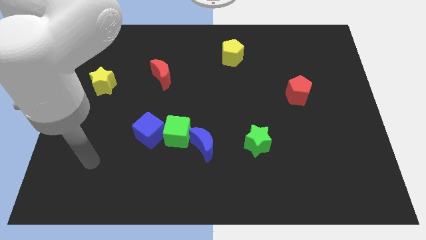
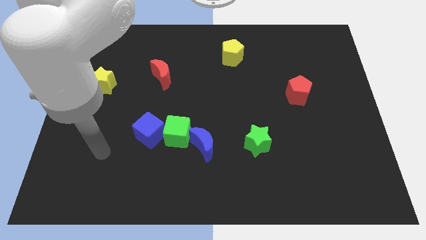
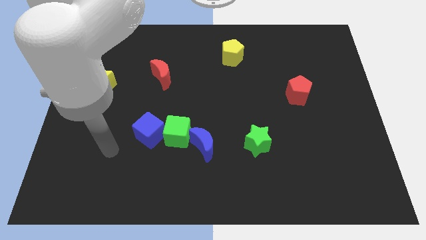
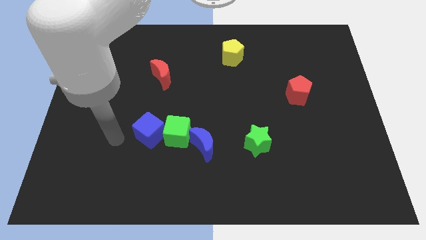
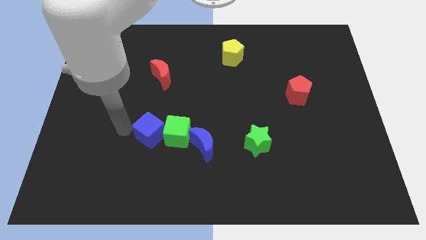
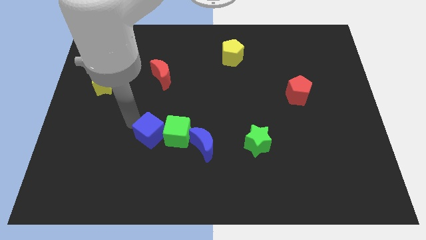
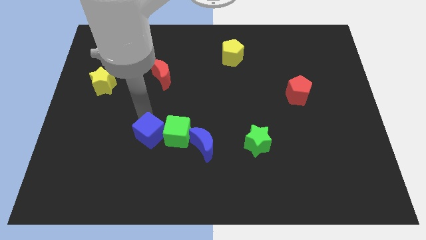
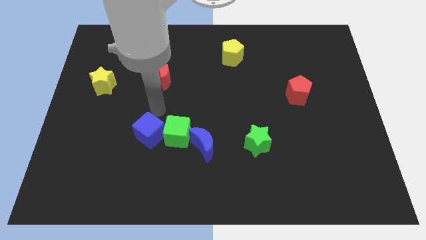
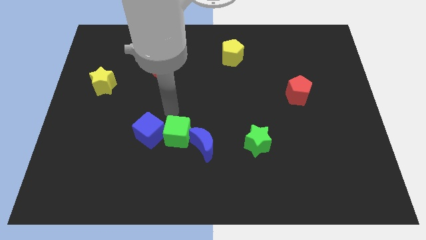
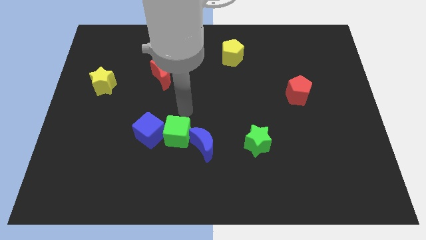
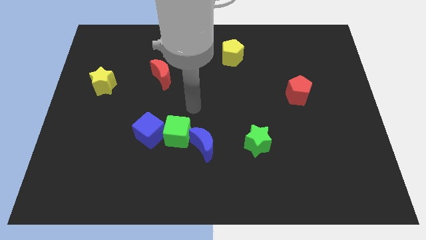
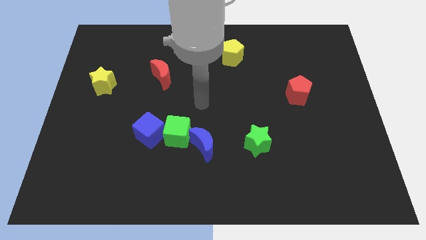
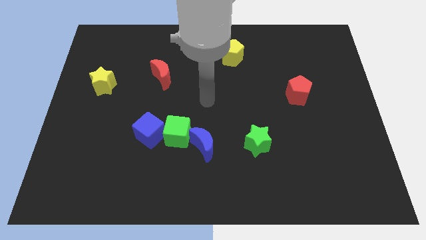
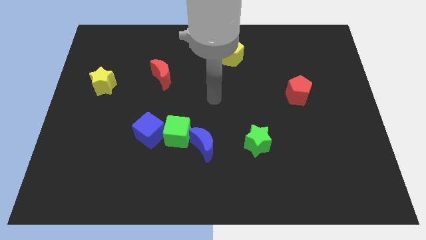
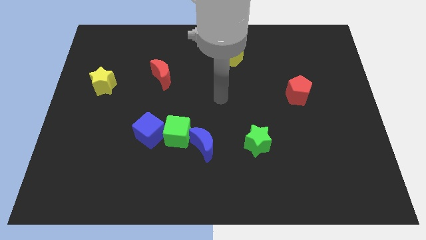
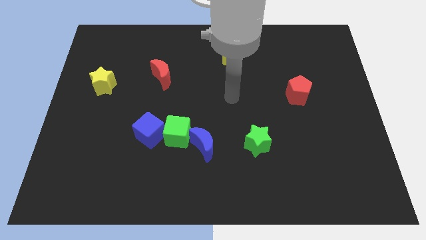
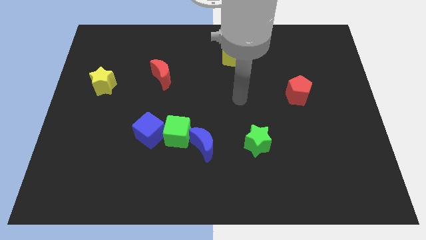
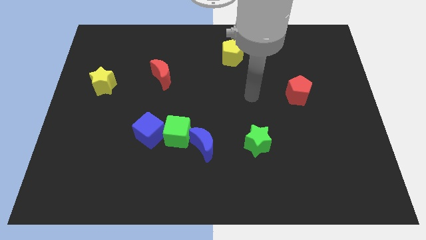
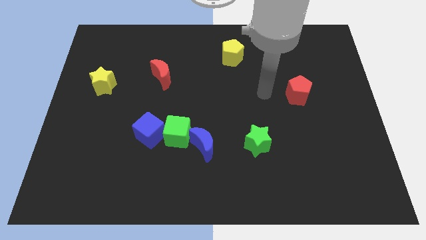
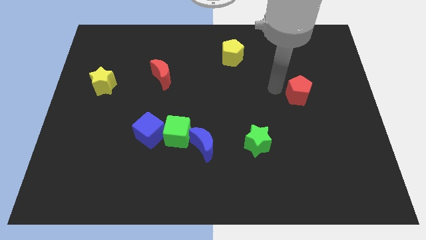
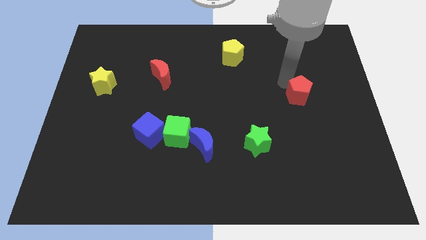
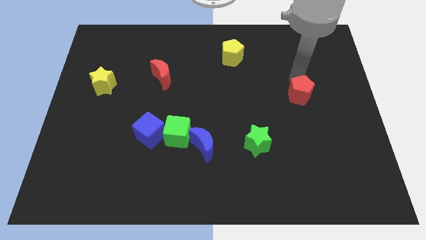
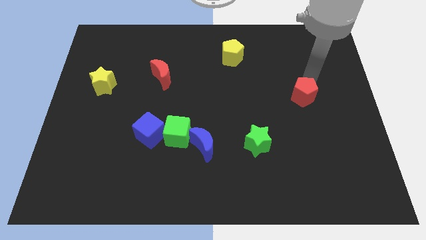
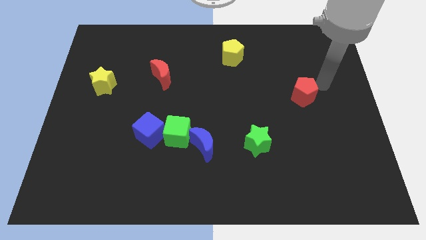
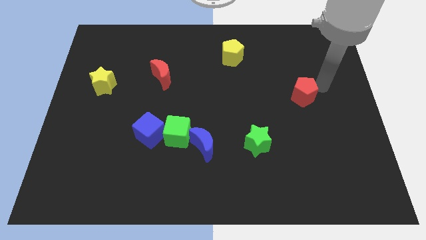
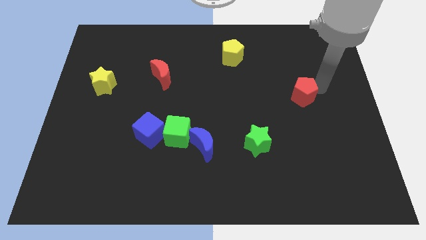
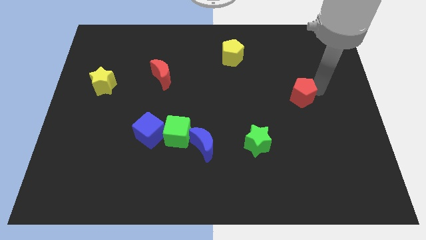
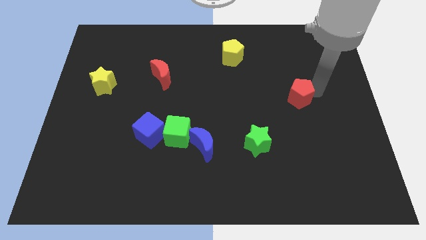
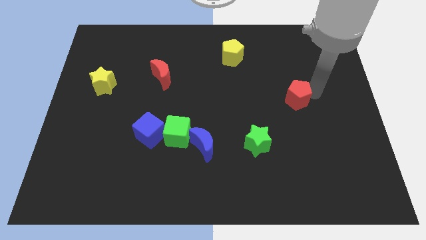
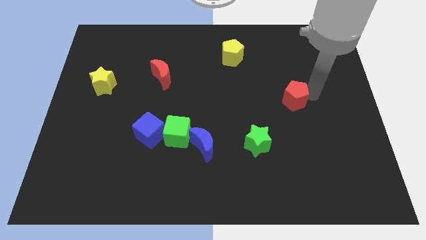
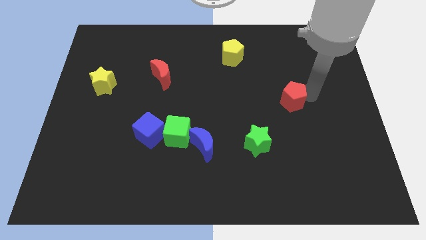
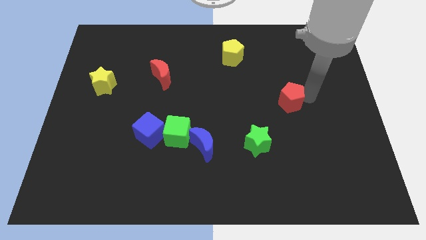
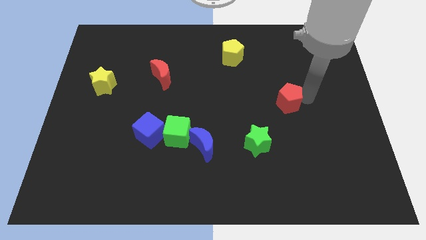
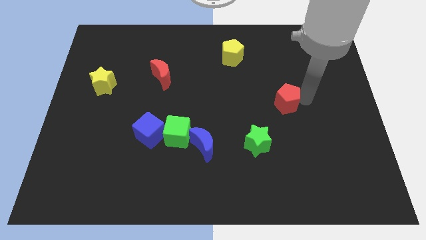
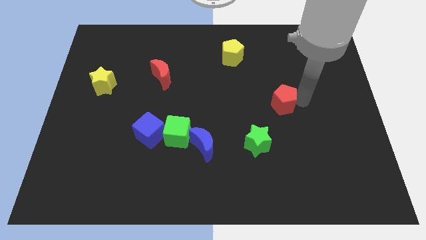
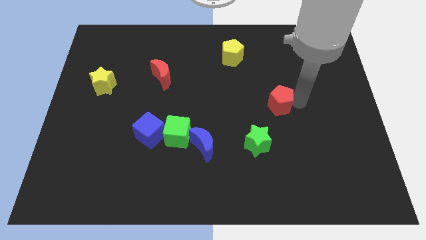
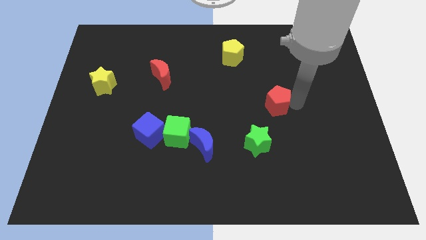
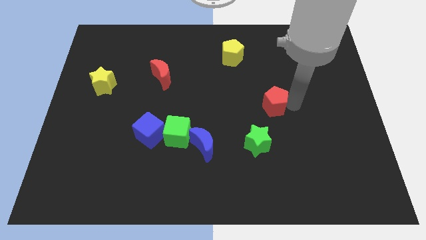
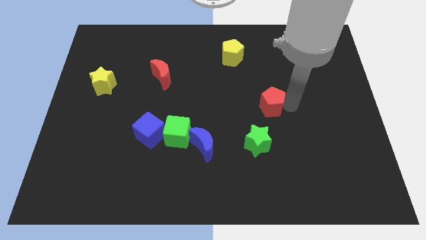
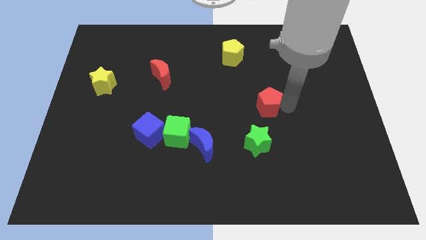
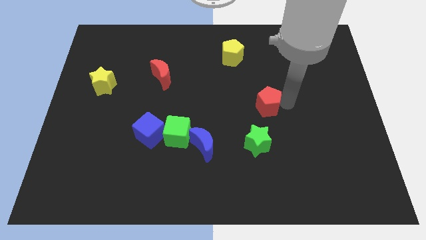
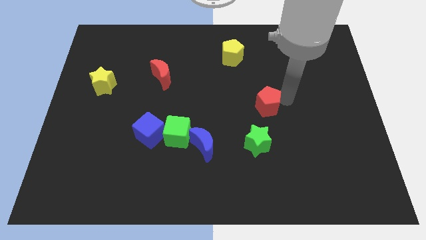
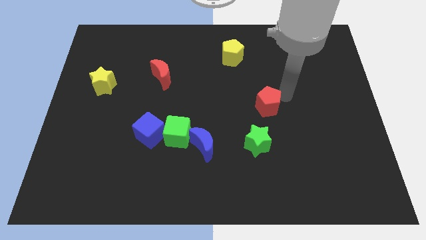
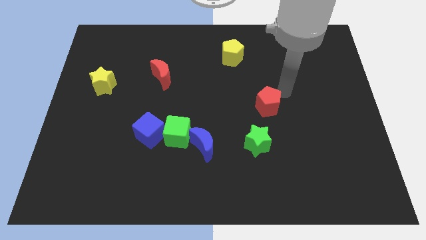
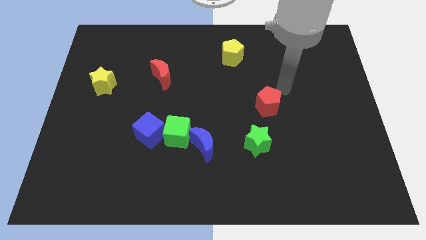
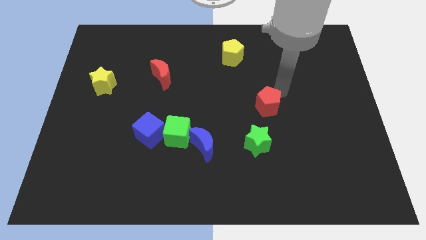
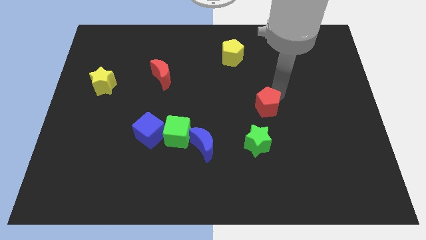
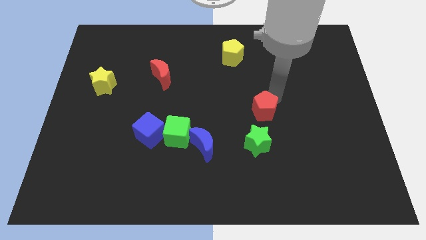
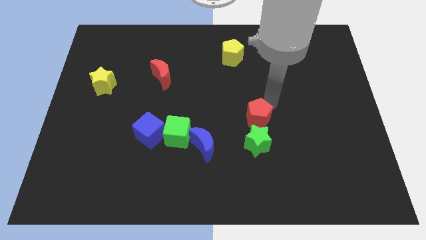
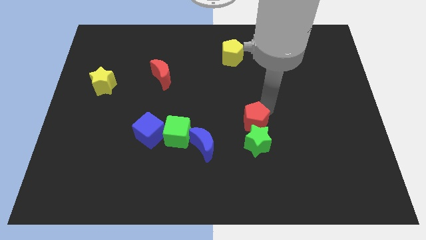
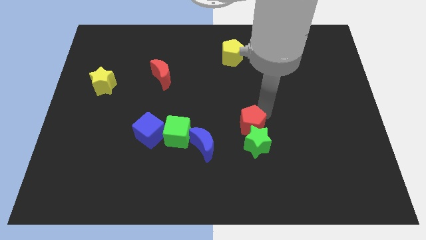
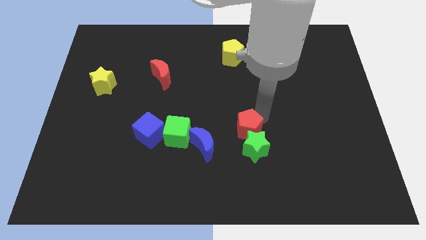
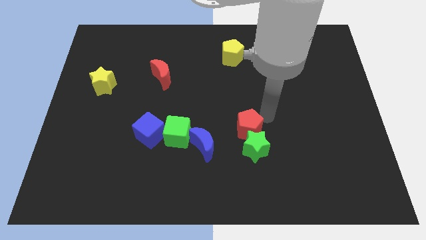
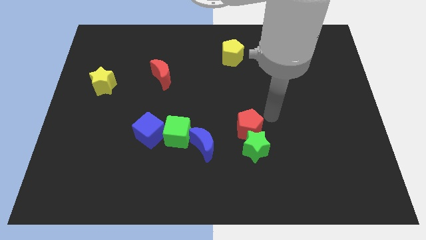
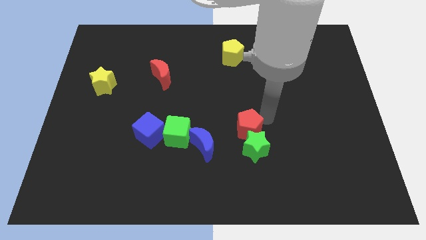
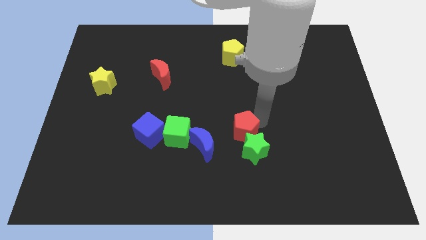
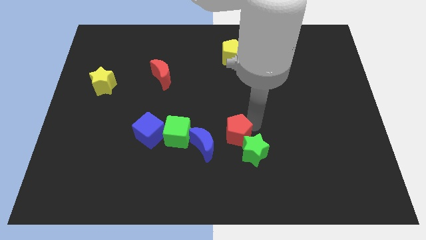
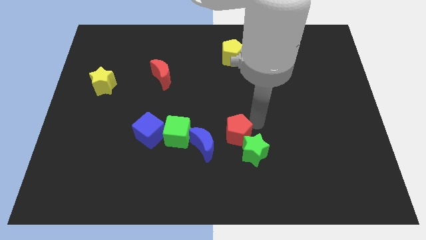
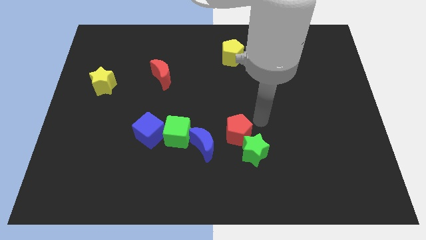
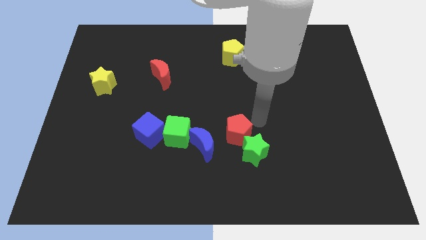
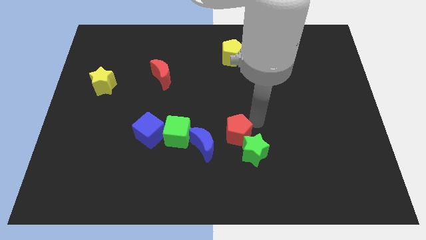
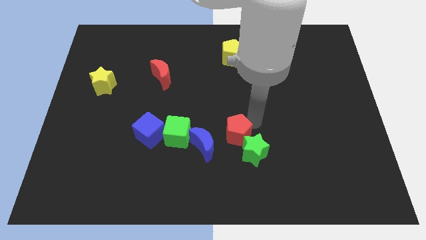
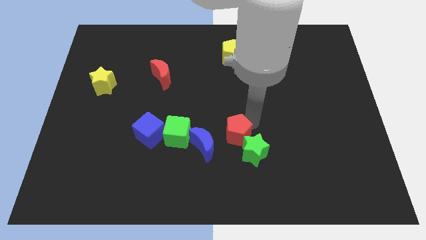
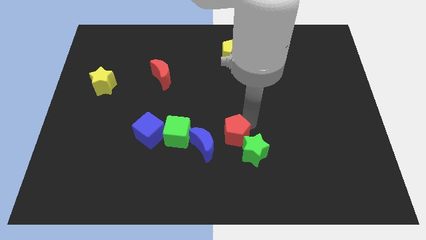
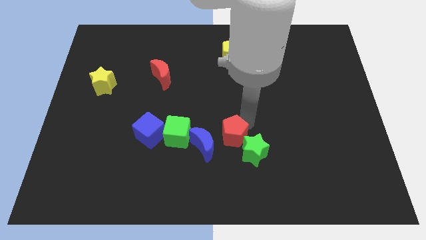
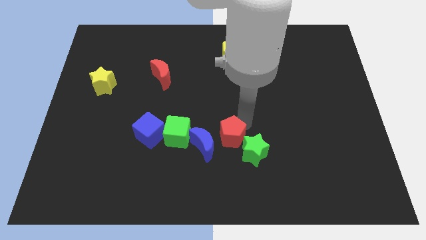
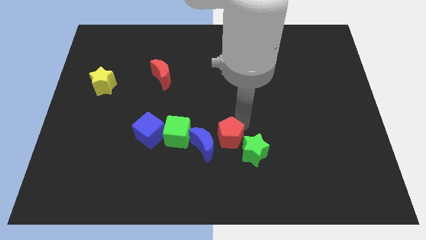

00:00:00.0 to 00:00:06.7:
move the red pentagon to the blue moon
